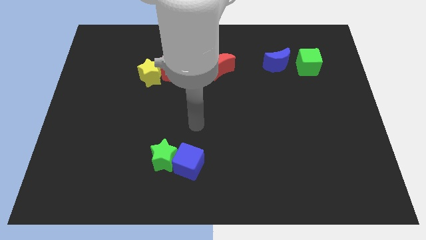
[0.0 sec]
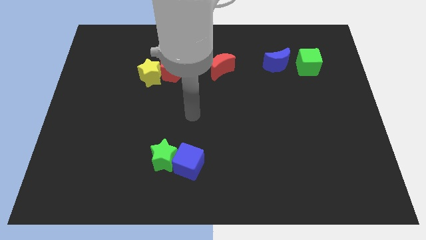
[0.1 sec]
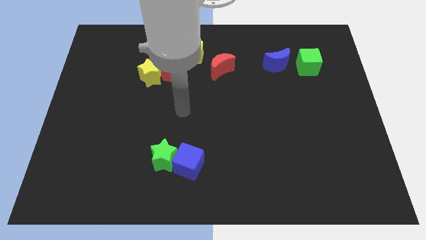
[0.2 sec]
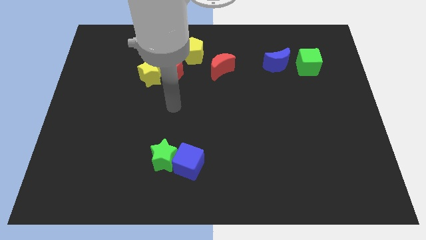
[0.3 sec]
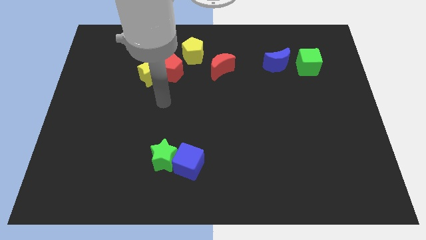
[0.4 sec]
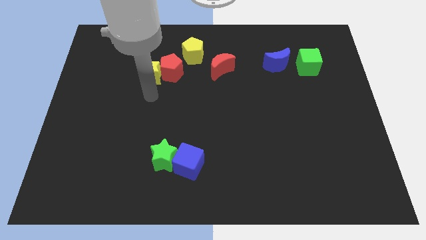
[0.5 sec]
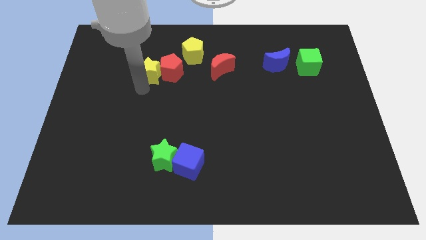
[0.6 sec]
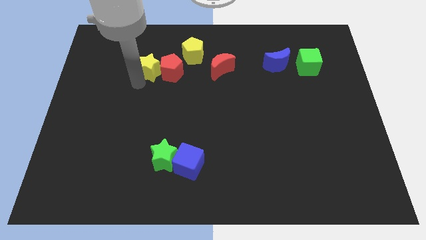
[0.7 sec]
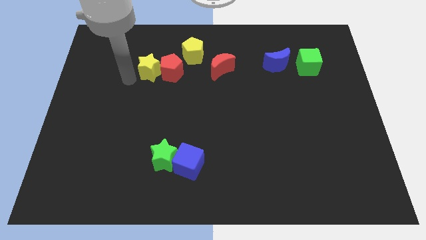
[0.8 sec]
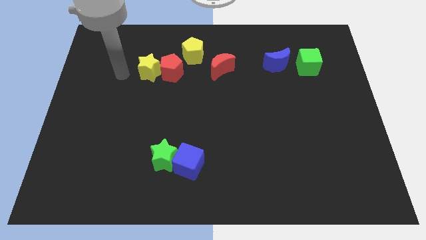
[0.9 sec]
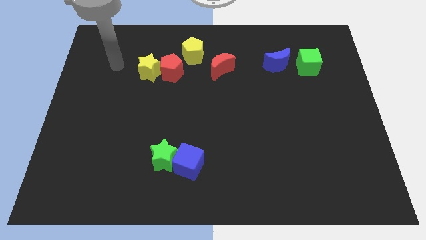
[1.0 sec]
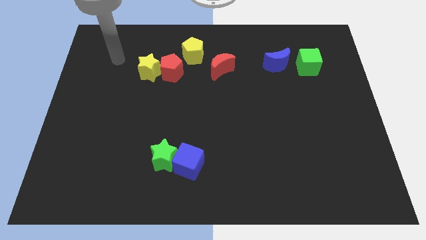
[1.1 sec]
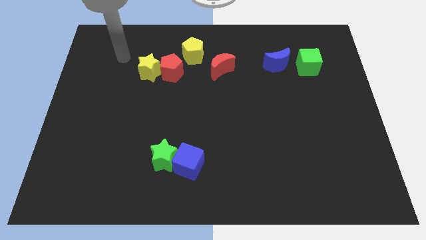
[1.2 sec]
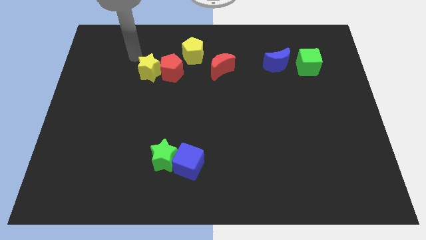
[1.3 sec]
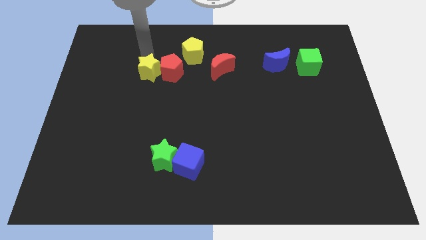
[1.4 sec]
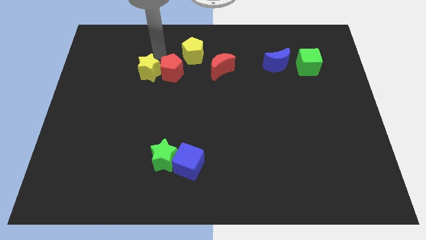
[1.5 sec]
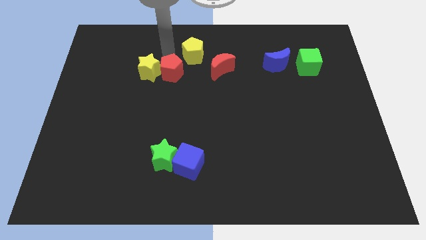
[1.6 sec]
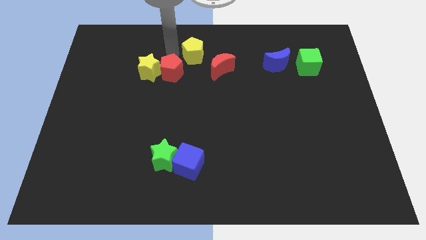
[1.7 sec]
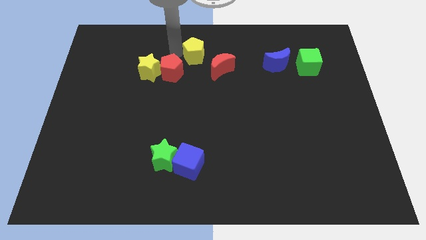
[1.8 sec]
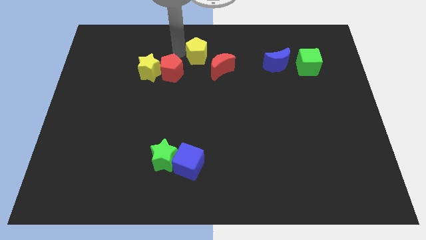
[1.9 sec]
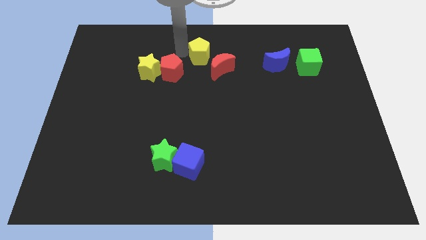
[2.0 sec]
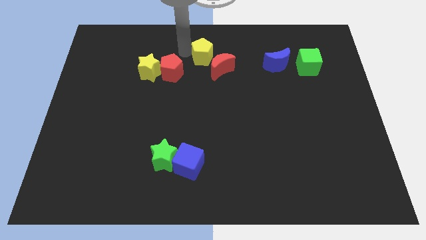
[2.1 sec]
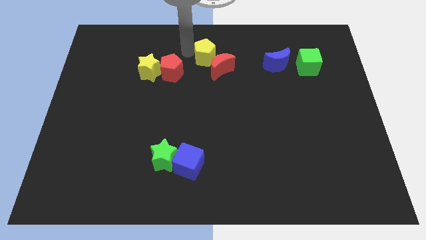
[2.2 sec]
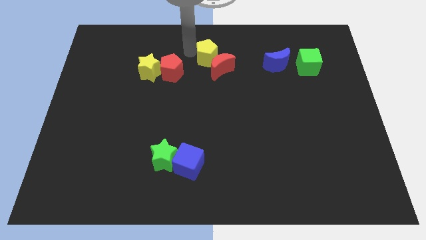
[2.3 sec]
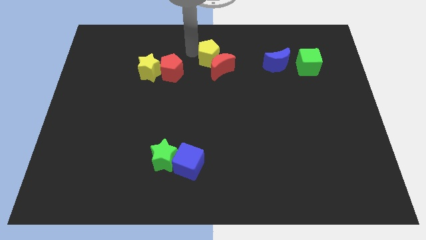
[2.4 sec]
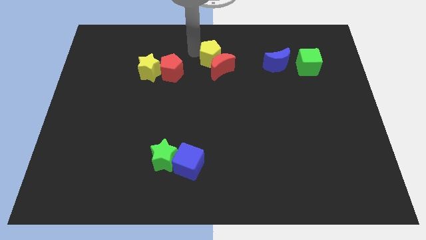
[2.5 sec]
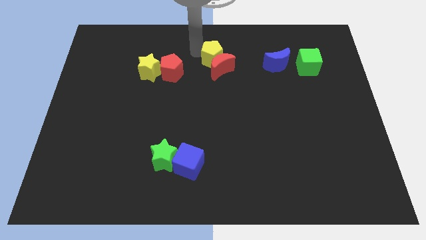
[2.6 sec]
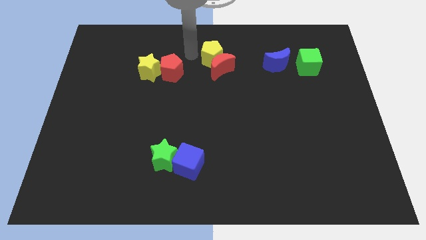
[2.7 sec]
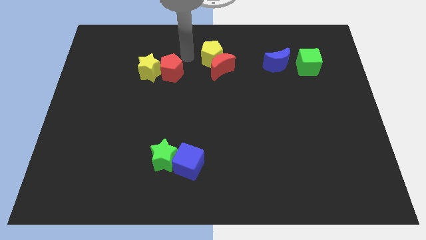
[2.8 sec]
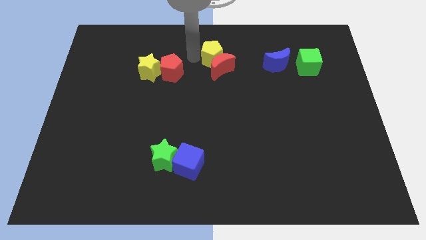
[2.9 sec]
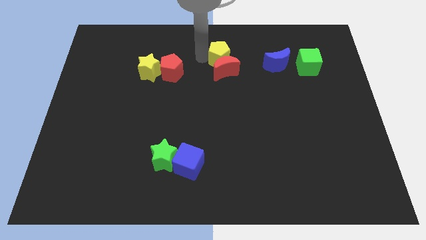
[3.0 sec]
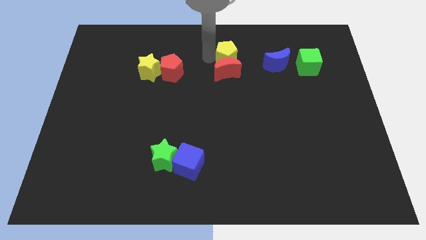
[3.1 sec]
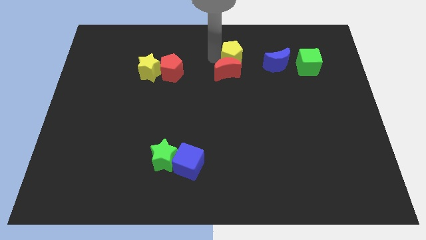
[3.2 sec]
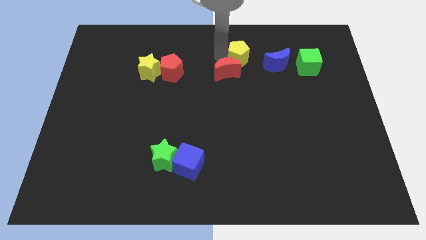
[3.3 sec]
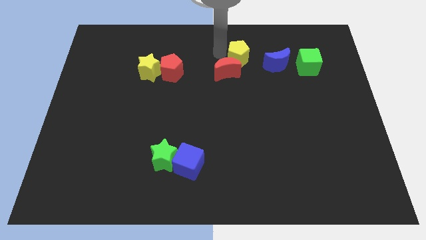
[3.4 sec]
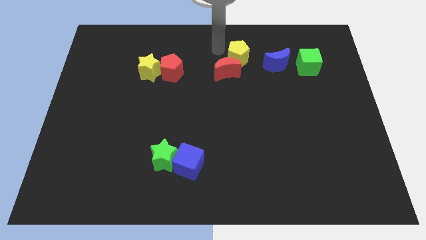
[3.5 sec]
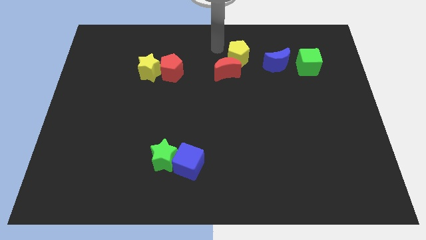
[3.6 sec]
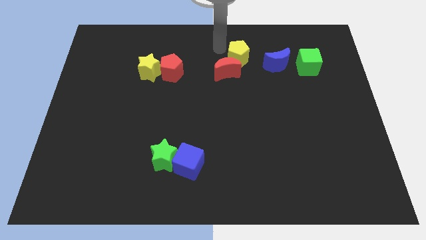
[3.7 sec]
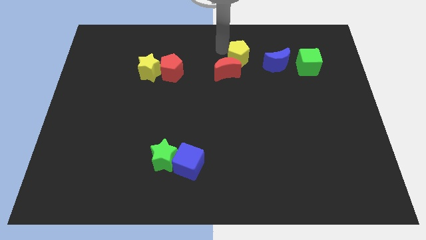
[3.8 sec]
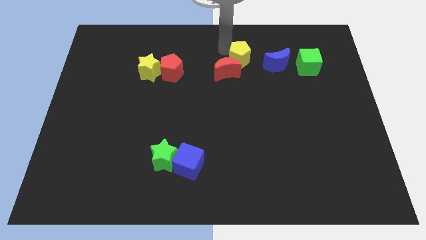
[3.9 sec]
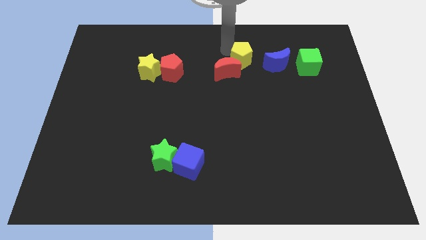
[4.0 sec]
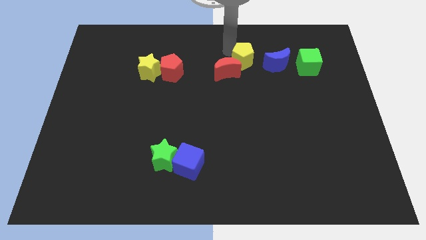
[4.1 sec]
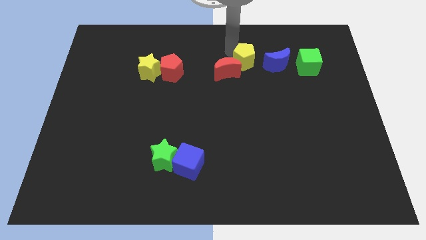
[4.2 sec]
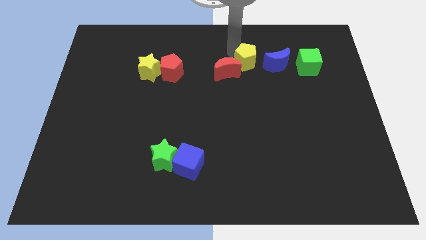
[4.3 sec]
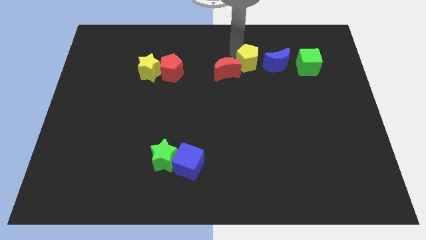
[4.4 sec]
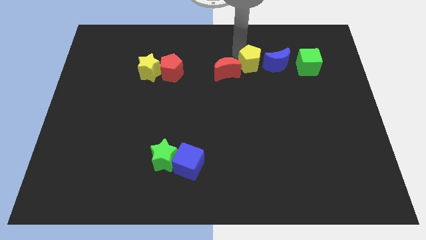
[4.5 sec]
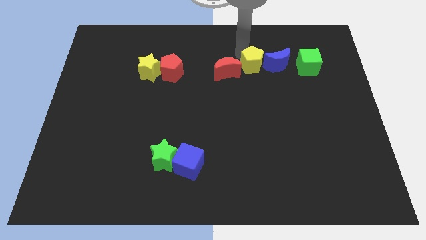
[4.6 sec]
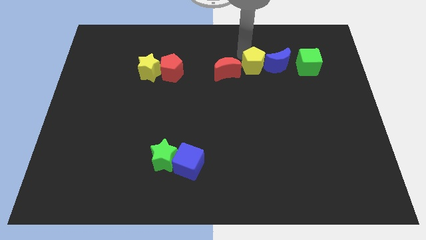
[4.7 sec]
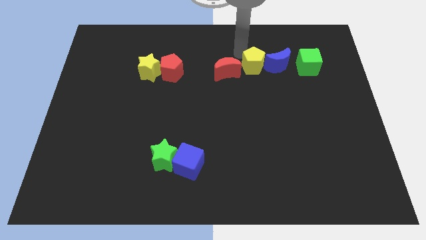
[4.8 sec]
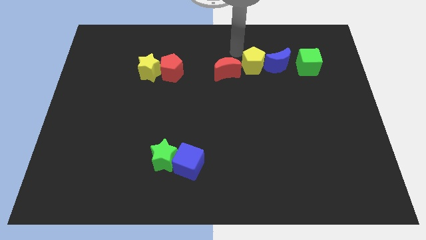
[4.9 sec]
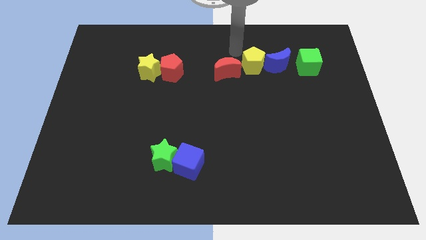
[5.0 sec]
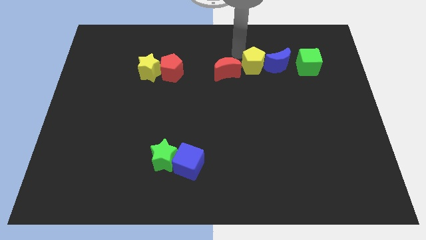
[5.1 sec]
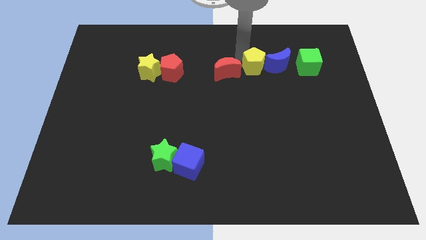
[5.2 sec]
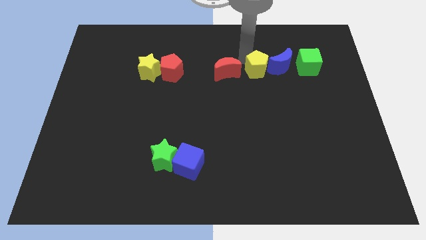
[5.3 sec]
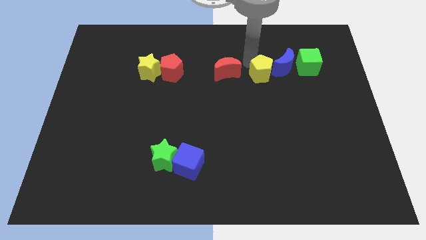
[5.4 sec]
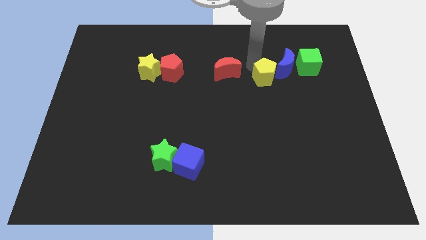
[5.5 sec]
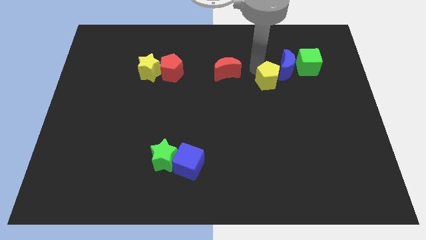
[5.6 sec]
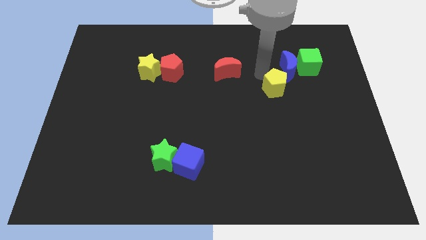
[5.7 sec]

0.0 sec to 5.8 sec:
push the yellow pentagon to the bottom of the blue moon

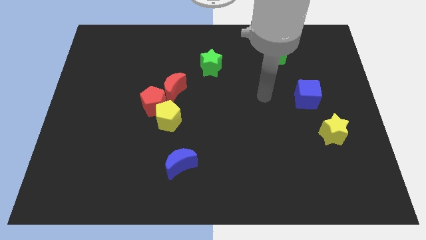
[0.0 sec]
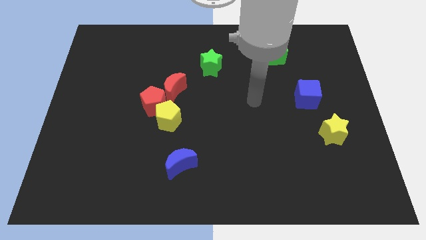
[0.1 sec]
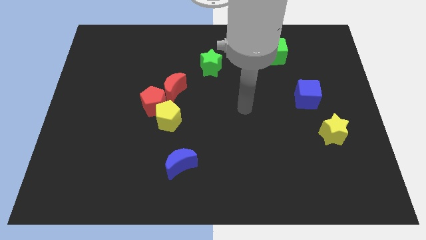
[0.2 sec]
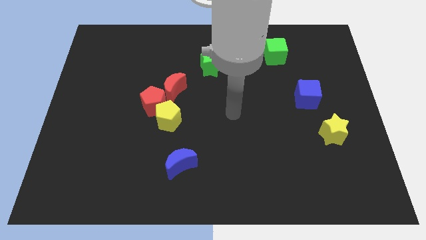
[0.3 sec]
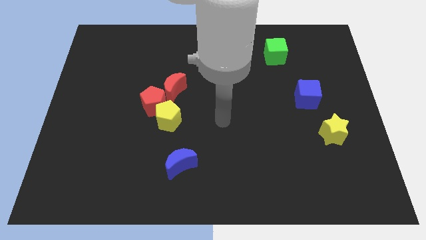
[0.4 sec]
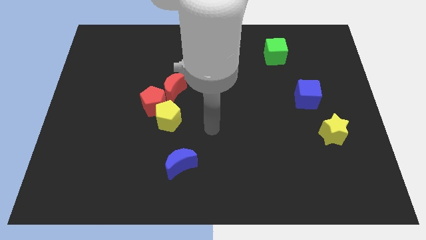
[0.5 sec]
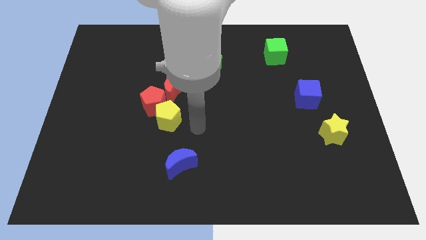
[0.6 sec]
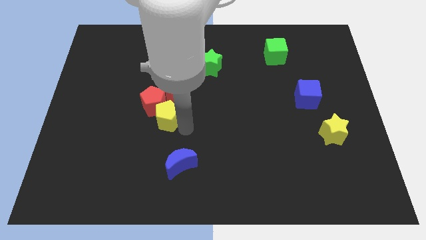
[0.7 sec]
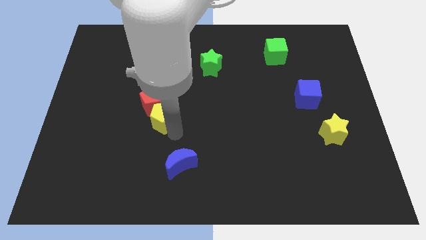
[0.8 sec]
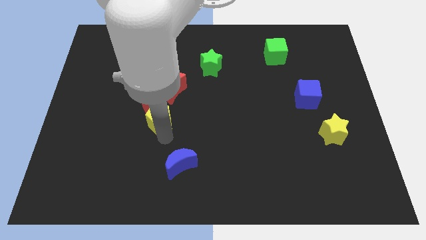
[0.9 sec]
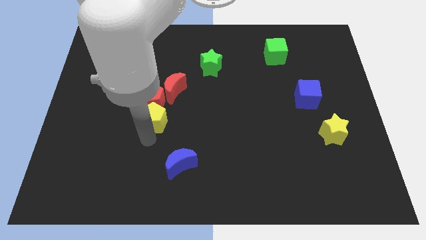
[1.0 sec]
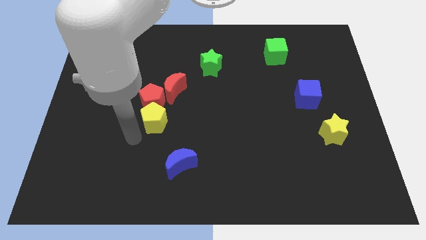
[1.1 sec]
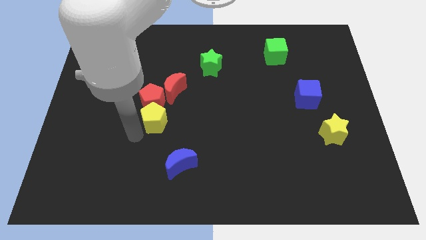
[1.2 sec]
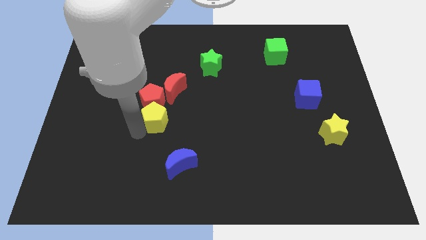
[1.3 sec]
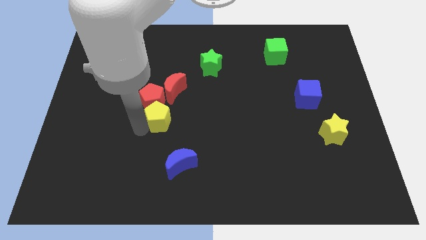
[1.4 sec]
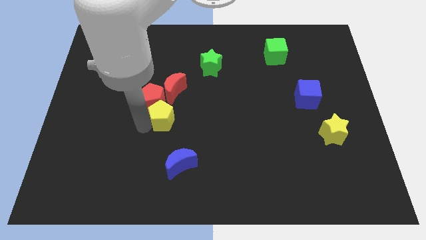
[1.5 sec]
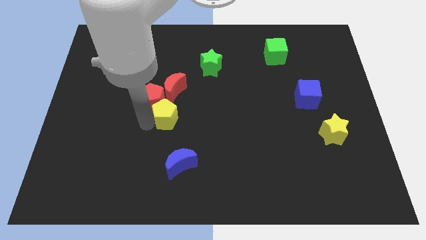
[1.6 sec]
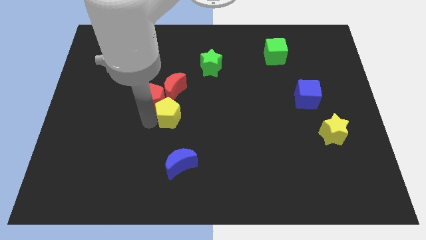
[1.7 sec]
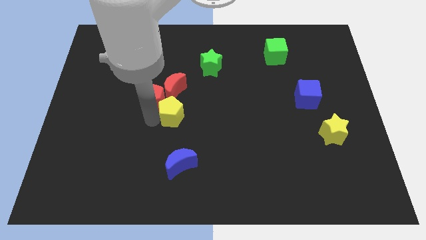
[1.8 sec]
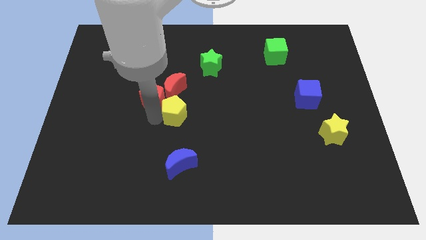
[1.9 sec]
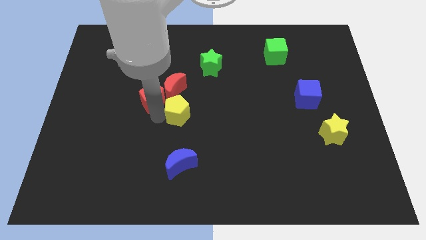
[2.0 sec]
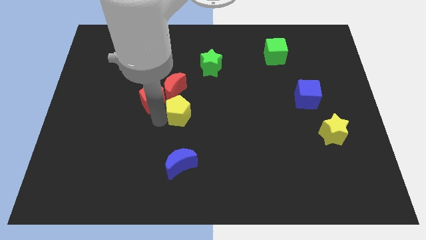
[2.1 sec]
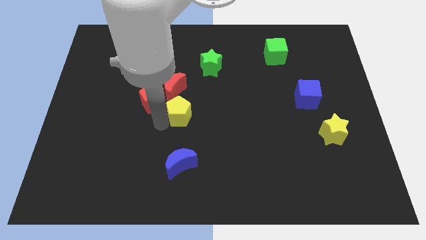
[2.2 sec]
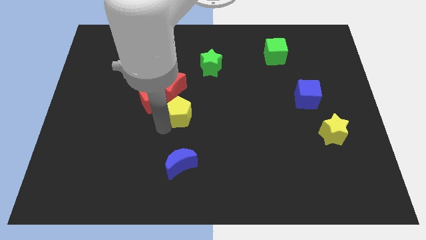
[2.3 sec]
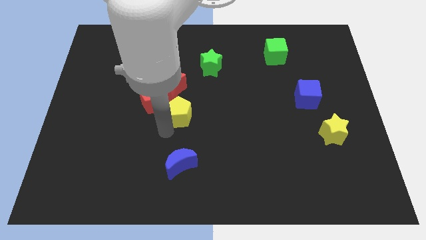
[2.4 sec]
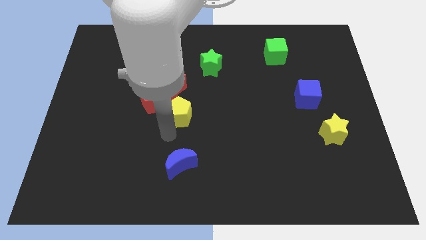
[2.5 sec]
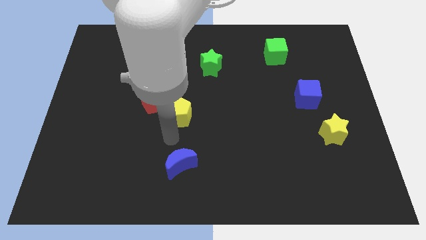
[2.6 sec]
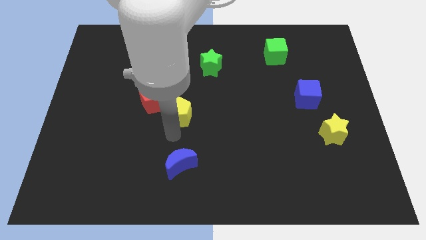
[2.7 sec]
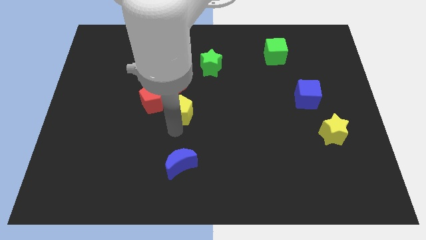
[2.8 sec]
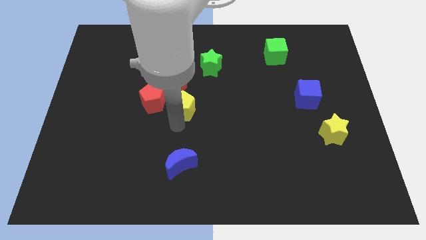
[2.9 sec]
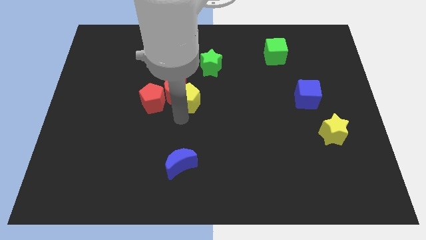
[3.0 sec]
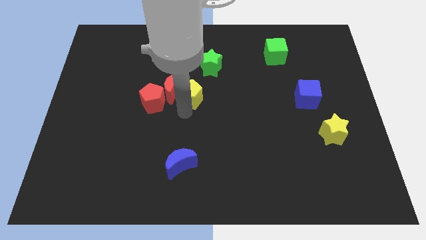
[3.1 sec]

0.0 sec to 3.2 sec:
slide the yellow pentagon diagonally down and to the left of the green star
